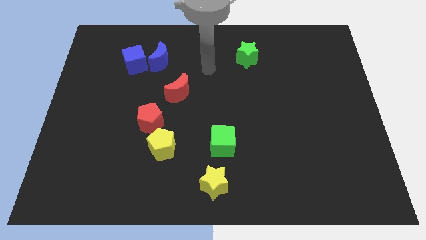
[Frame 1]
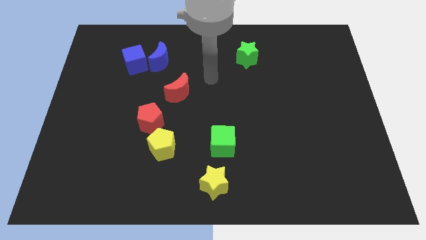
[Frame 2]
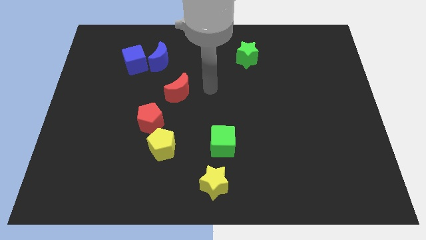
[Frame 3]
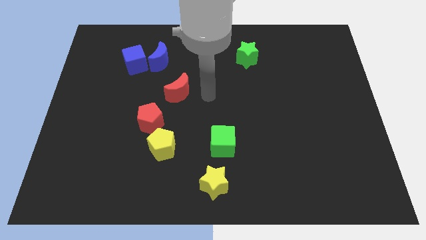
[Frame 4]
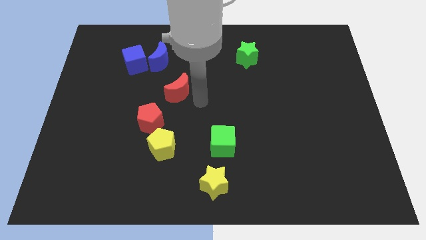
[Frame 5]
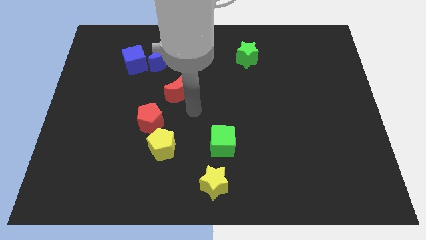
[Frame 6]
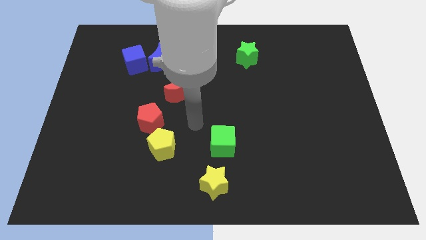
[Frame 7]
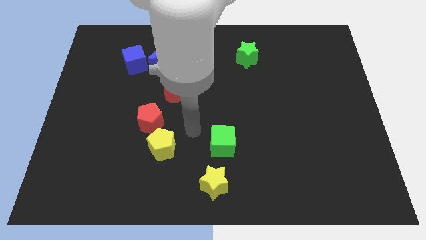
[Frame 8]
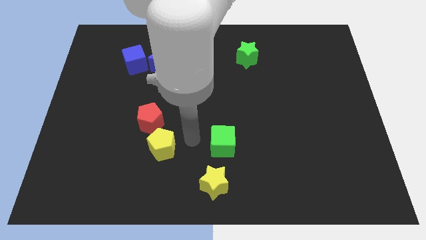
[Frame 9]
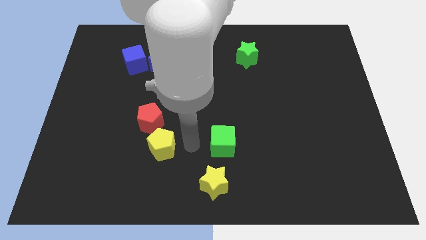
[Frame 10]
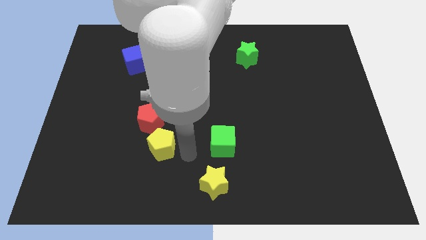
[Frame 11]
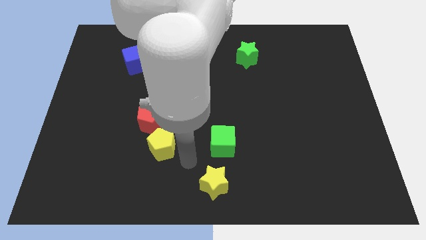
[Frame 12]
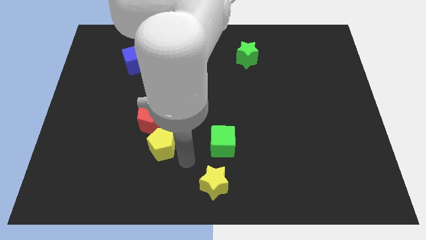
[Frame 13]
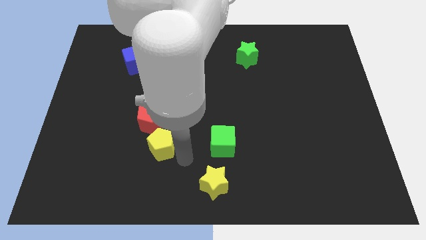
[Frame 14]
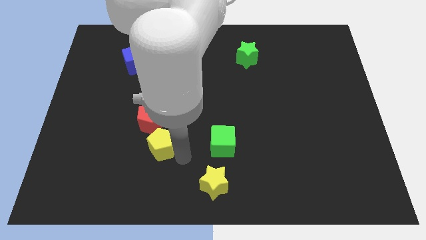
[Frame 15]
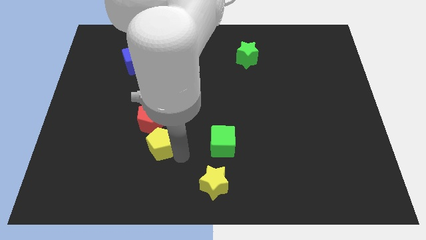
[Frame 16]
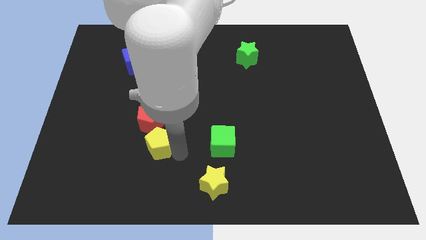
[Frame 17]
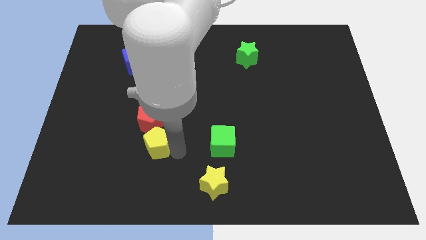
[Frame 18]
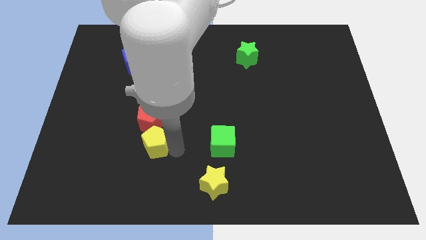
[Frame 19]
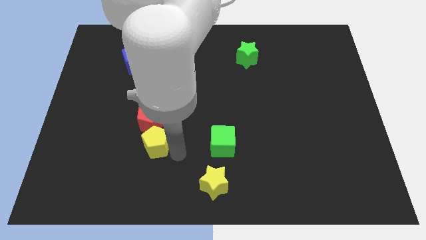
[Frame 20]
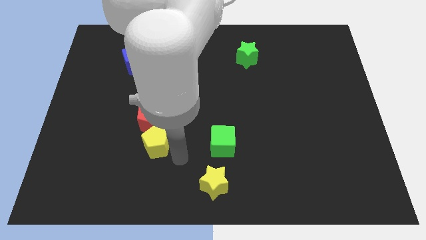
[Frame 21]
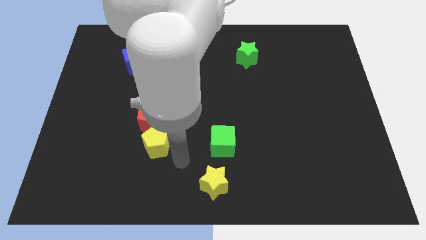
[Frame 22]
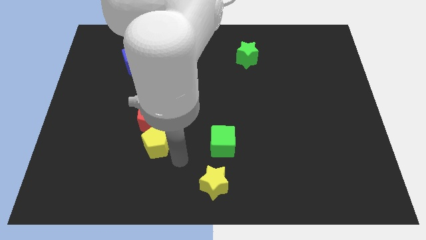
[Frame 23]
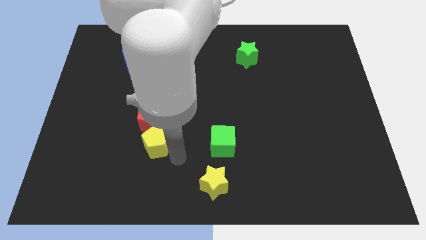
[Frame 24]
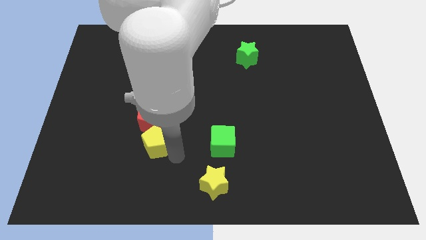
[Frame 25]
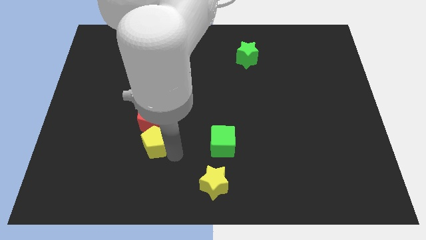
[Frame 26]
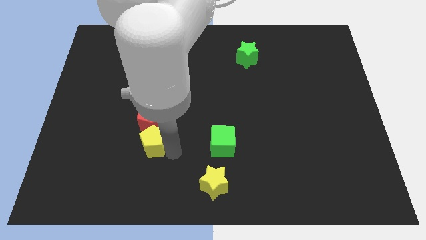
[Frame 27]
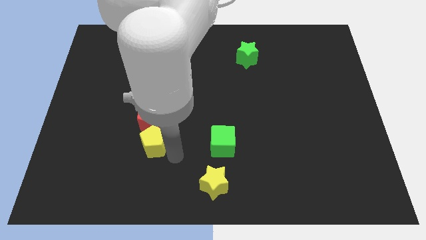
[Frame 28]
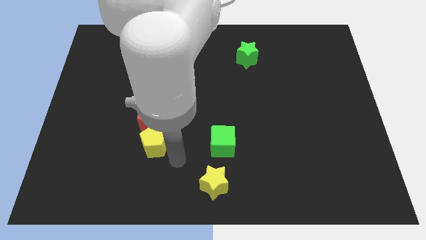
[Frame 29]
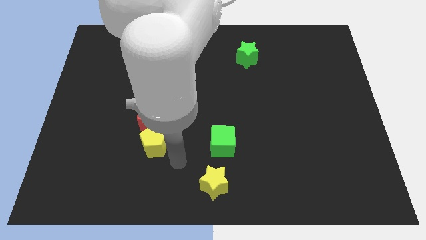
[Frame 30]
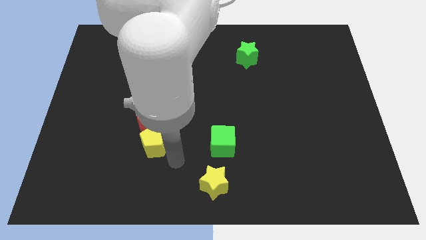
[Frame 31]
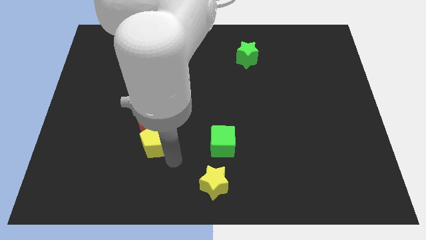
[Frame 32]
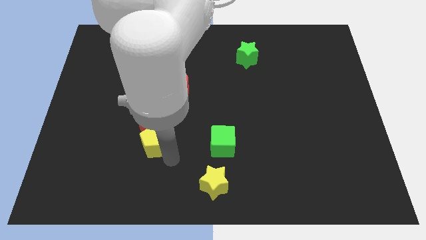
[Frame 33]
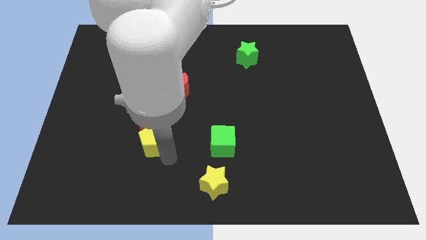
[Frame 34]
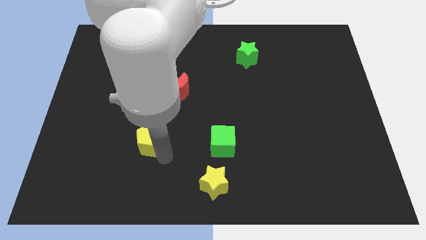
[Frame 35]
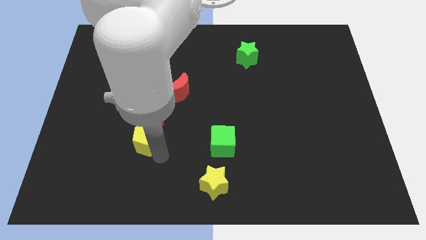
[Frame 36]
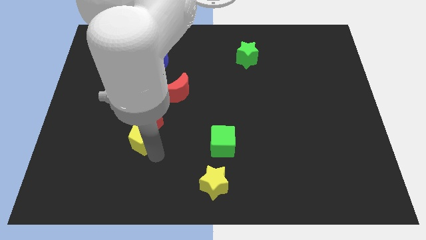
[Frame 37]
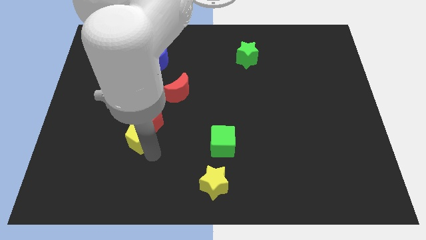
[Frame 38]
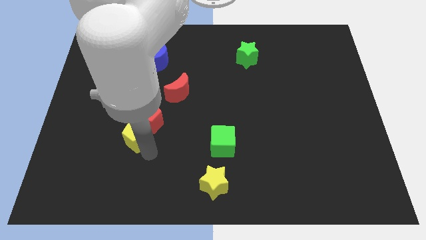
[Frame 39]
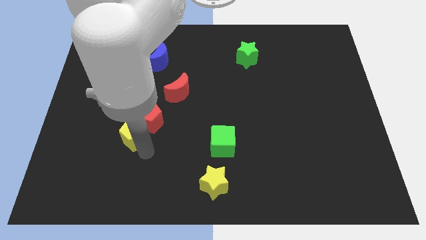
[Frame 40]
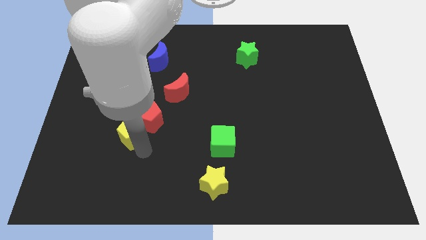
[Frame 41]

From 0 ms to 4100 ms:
push the yellow pentagon a little bit up and left

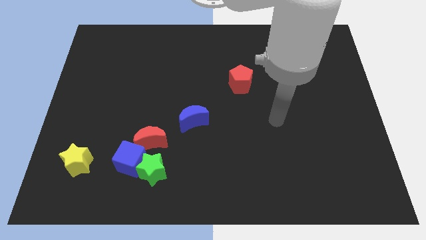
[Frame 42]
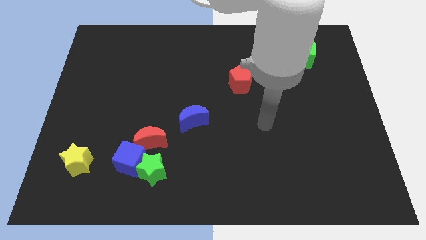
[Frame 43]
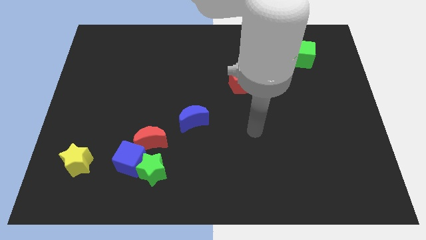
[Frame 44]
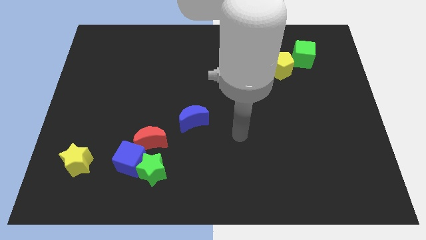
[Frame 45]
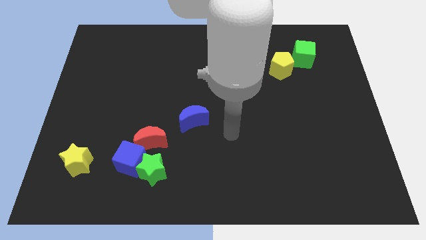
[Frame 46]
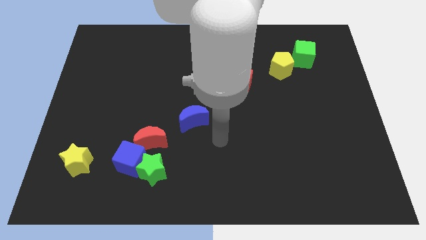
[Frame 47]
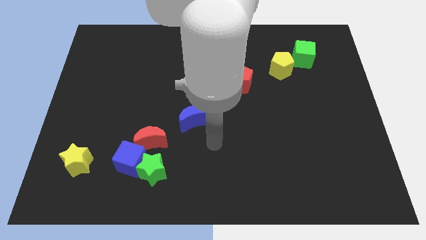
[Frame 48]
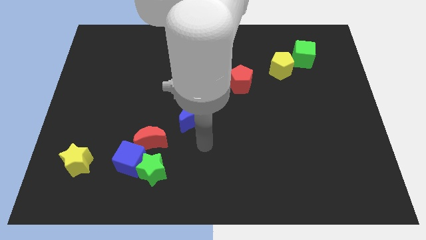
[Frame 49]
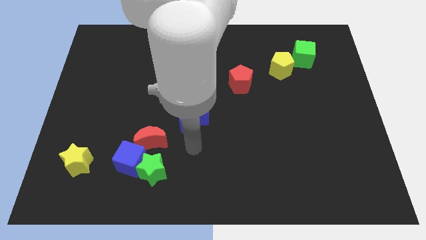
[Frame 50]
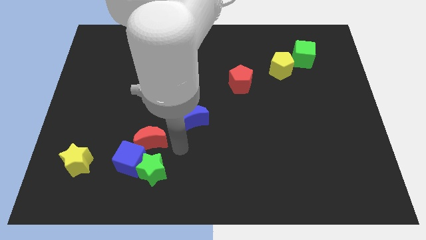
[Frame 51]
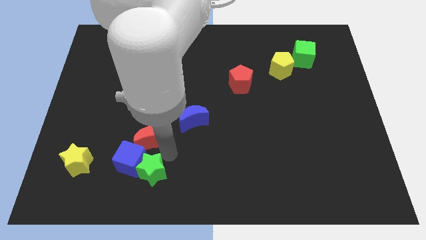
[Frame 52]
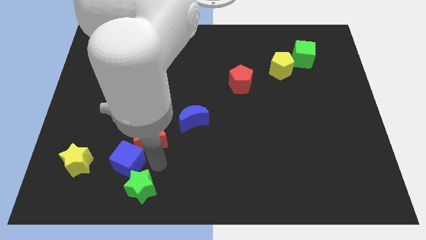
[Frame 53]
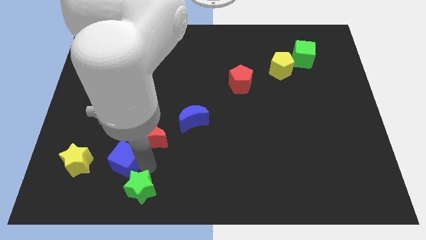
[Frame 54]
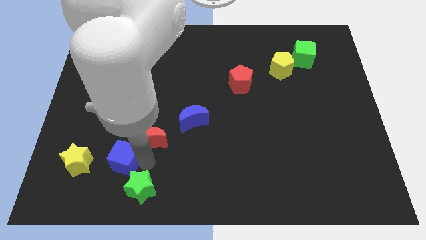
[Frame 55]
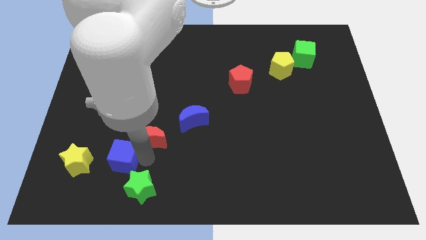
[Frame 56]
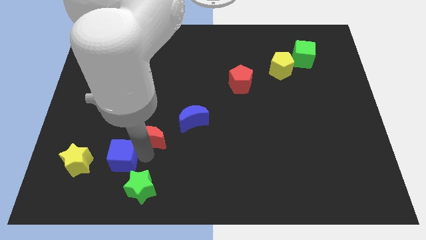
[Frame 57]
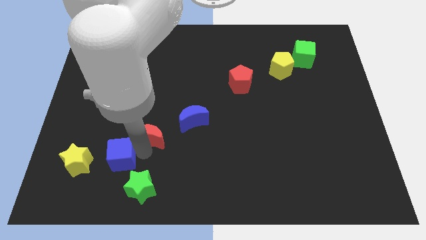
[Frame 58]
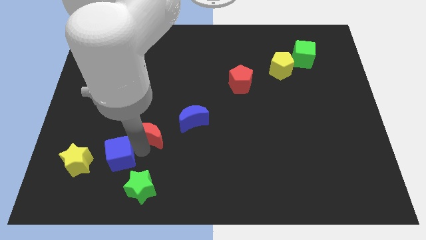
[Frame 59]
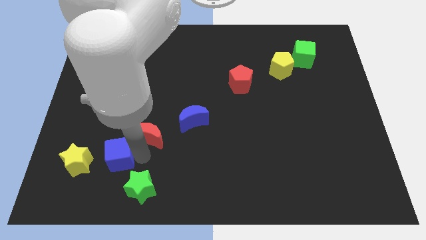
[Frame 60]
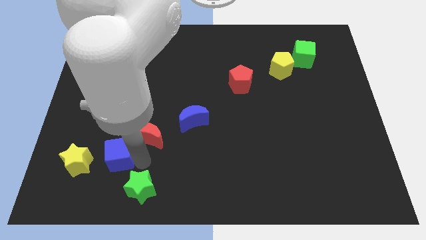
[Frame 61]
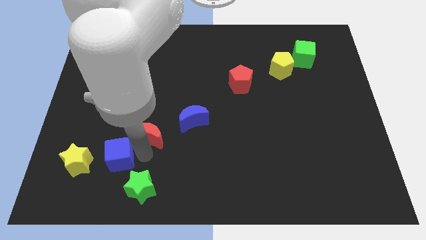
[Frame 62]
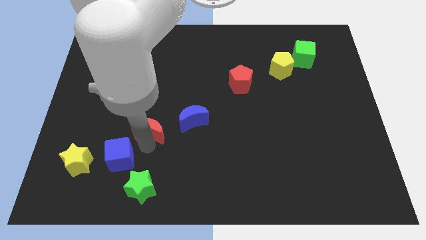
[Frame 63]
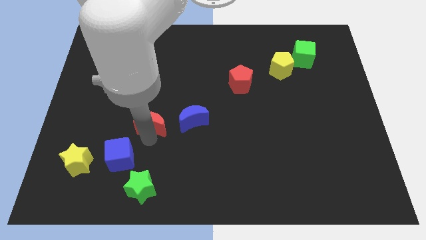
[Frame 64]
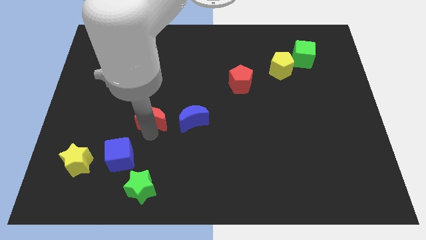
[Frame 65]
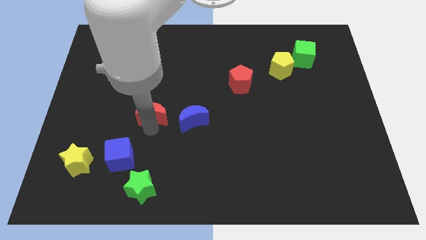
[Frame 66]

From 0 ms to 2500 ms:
push the red moon a little upwards

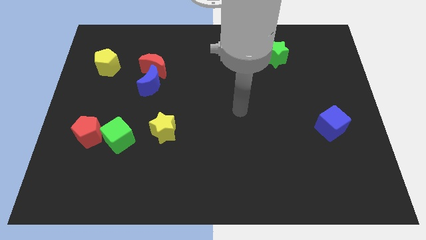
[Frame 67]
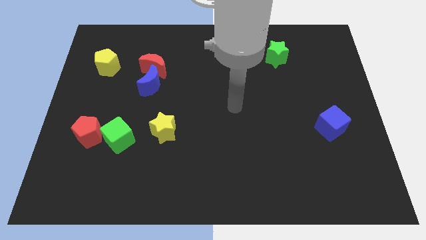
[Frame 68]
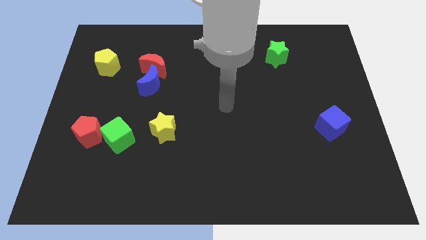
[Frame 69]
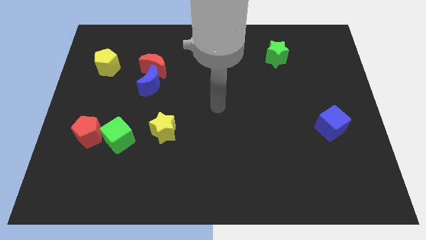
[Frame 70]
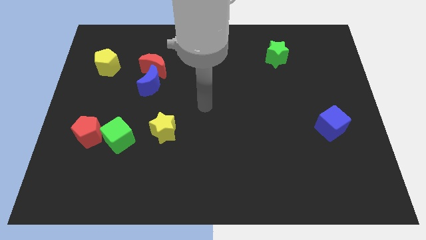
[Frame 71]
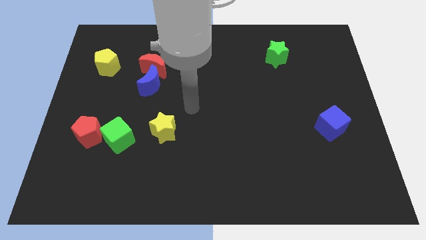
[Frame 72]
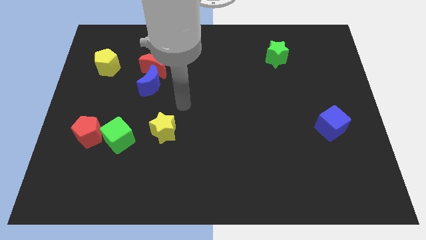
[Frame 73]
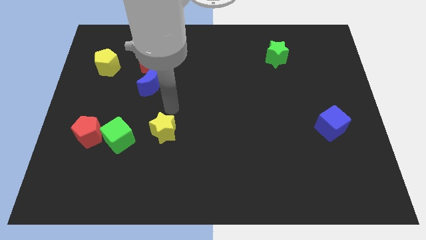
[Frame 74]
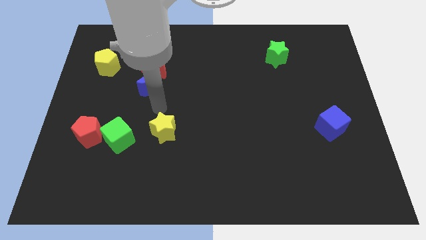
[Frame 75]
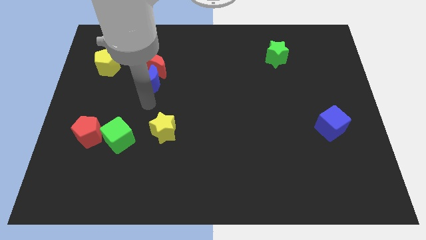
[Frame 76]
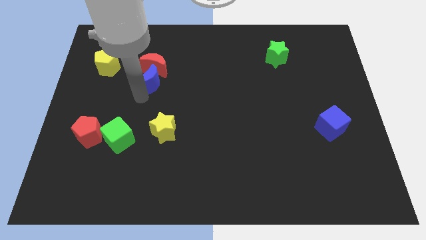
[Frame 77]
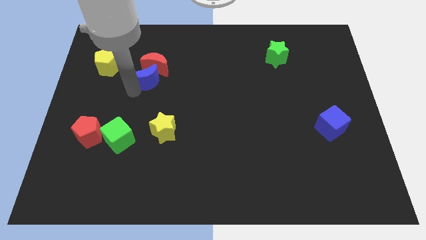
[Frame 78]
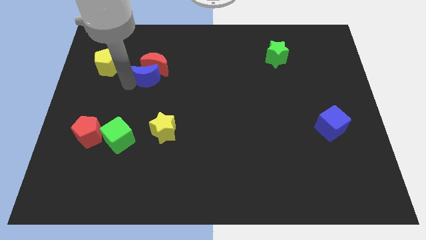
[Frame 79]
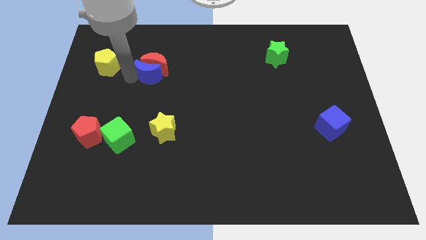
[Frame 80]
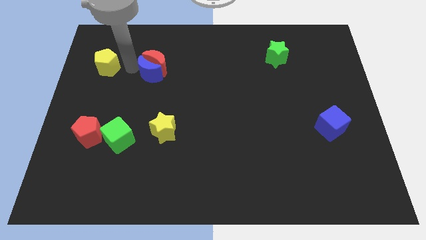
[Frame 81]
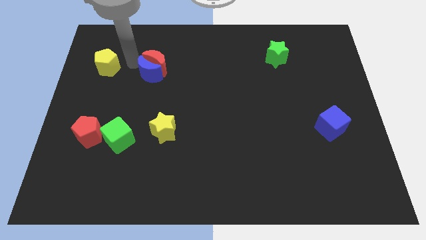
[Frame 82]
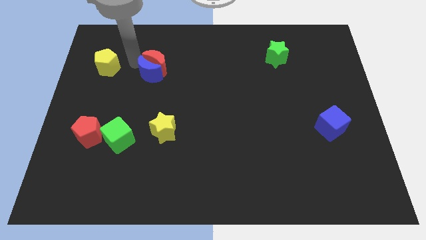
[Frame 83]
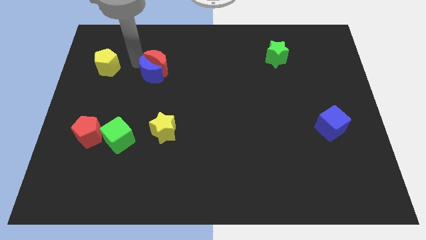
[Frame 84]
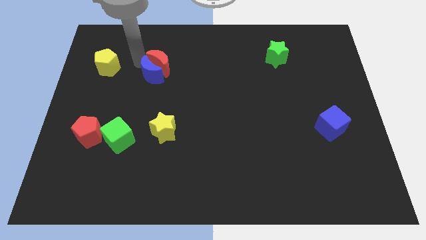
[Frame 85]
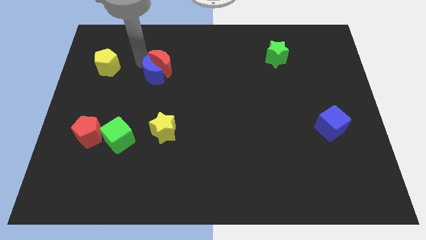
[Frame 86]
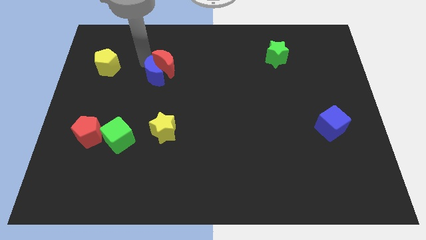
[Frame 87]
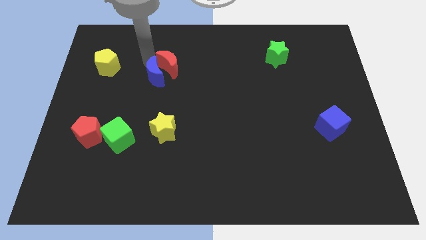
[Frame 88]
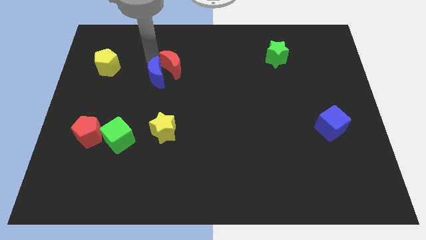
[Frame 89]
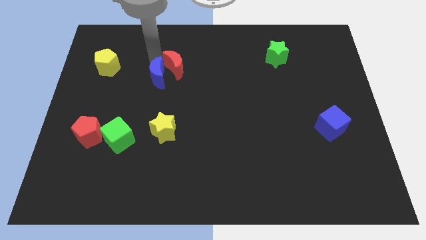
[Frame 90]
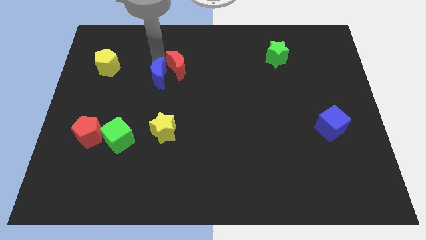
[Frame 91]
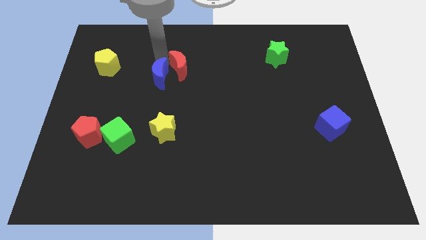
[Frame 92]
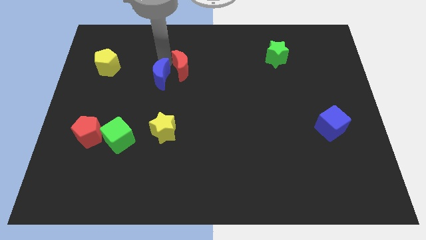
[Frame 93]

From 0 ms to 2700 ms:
push the red moon right a little bit
